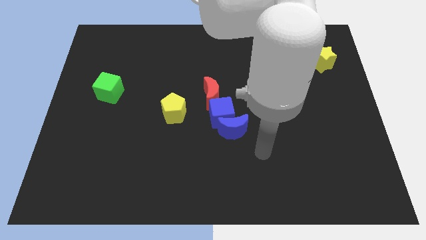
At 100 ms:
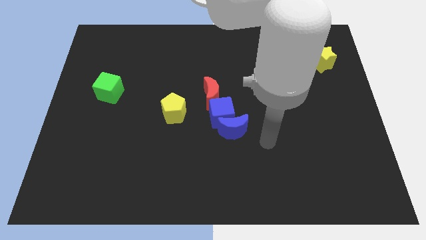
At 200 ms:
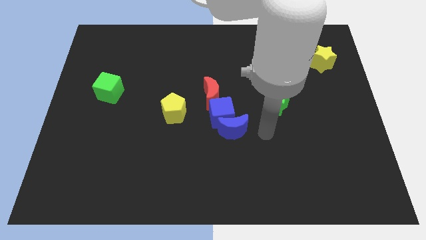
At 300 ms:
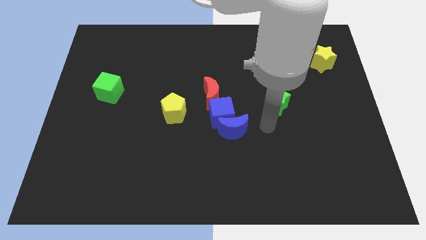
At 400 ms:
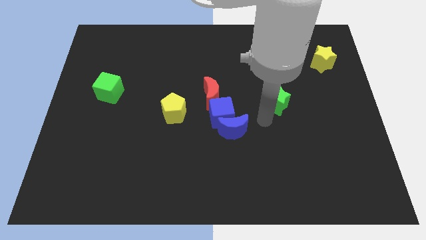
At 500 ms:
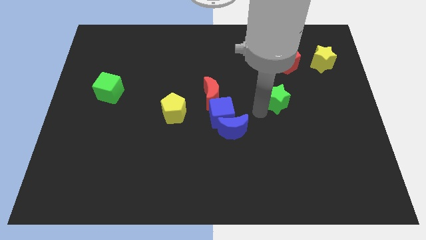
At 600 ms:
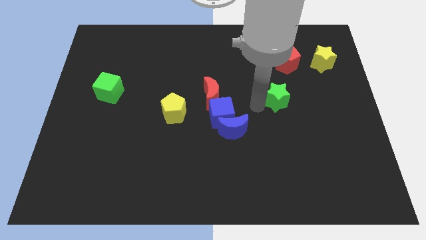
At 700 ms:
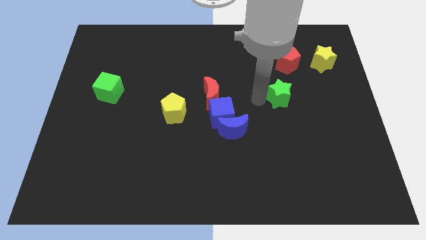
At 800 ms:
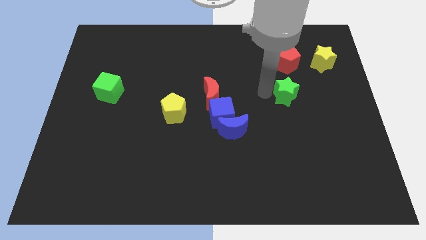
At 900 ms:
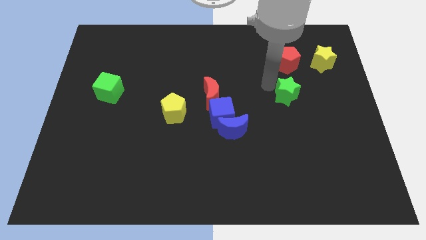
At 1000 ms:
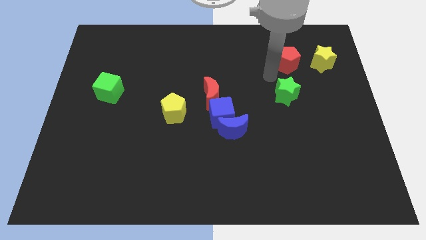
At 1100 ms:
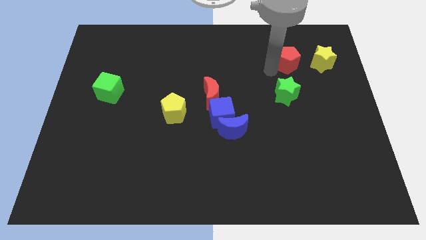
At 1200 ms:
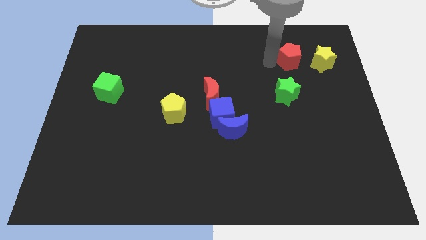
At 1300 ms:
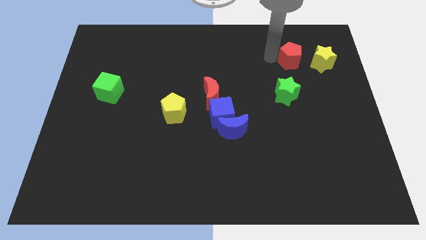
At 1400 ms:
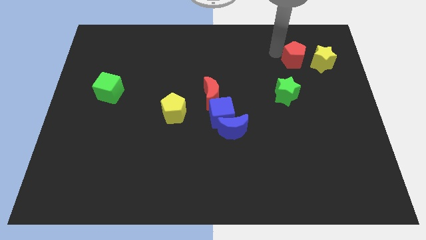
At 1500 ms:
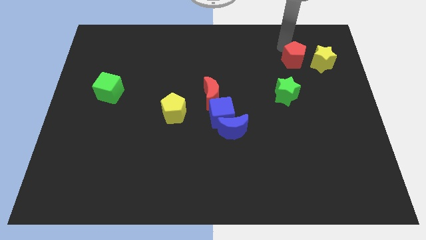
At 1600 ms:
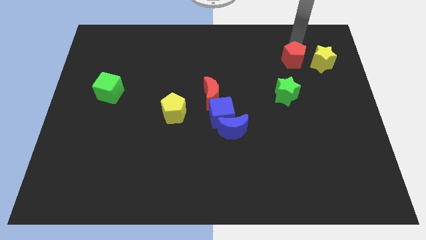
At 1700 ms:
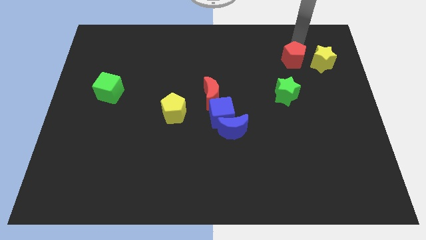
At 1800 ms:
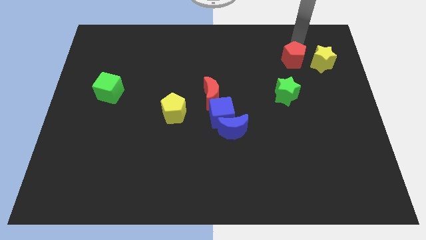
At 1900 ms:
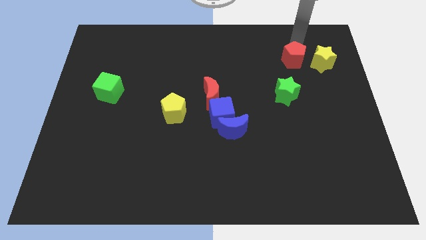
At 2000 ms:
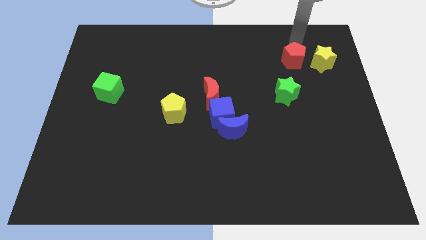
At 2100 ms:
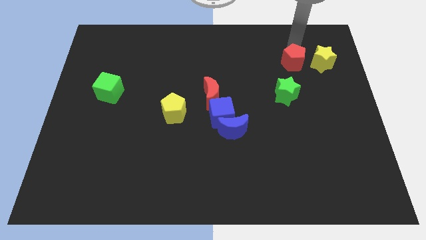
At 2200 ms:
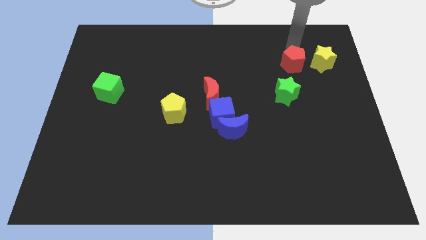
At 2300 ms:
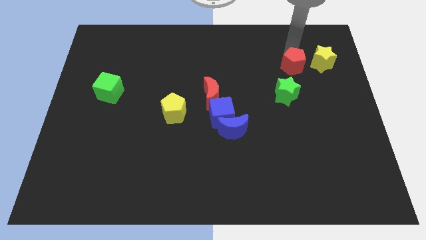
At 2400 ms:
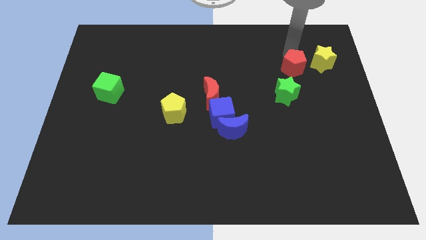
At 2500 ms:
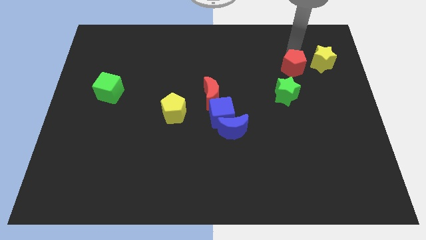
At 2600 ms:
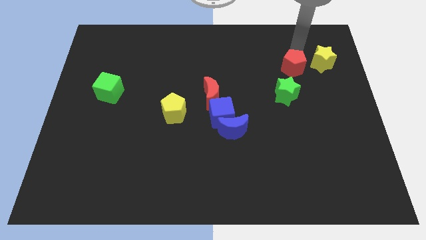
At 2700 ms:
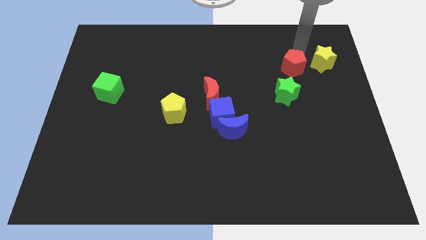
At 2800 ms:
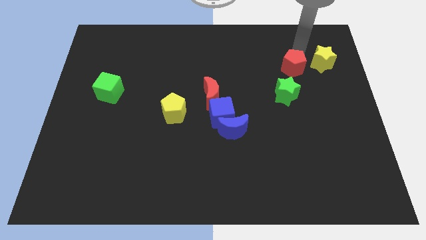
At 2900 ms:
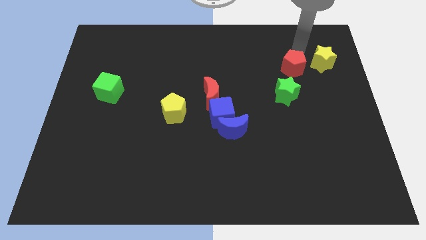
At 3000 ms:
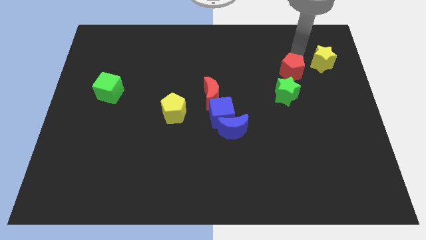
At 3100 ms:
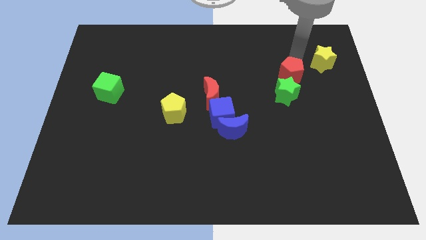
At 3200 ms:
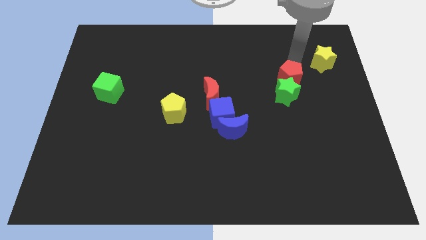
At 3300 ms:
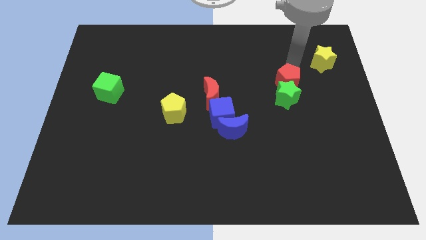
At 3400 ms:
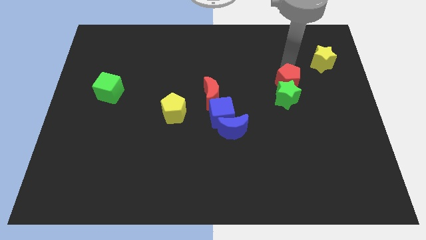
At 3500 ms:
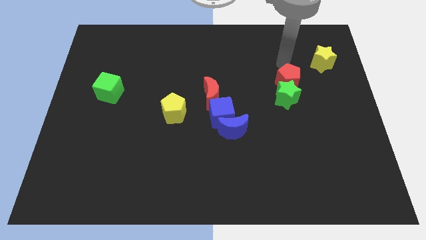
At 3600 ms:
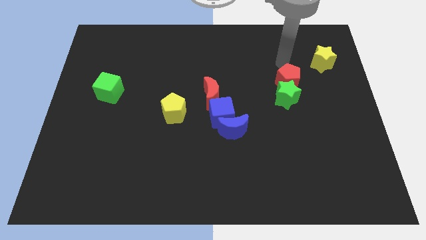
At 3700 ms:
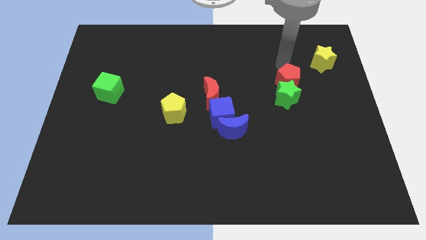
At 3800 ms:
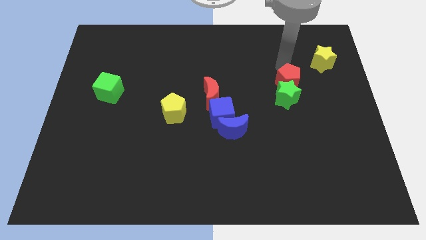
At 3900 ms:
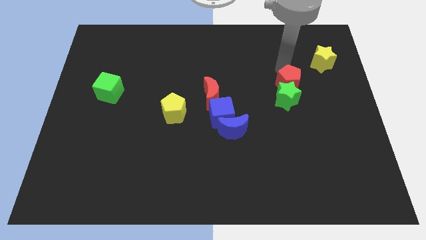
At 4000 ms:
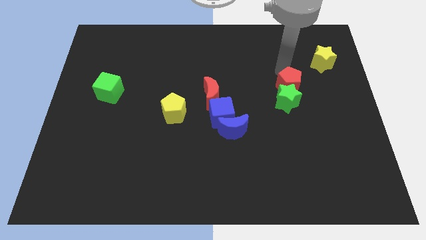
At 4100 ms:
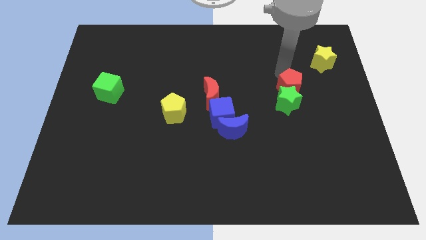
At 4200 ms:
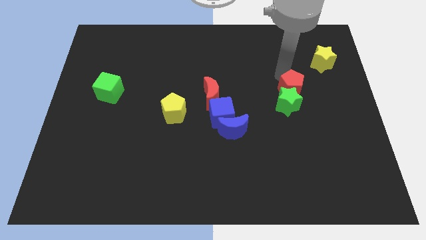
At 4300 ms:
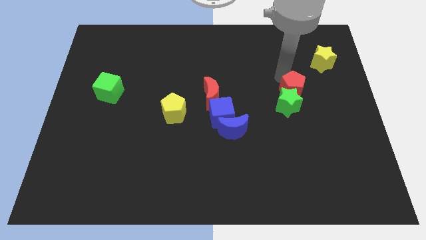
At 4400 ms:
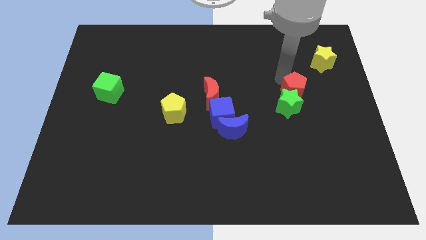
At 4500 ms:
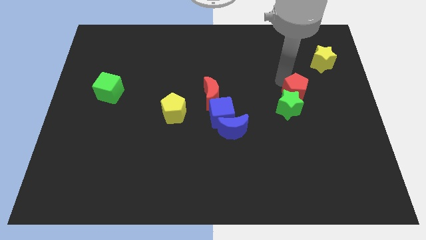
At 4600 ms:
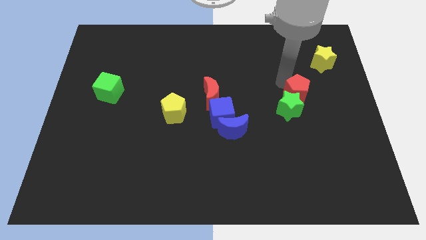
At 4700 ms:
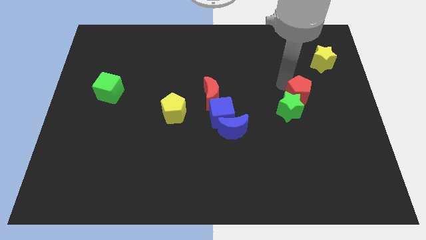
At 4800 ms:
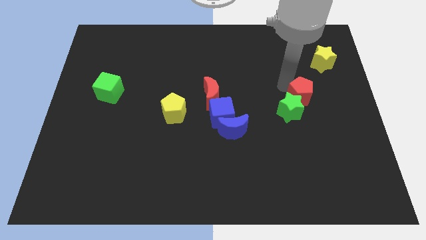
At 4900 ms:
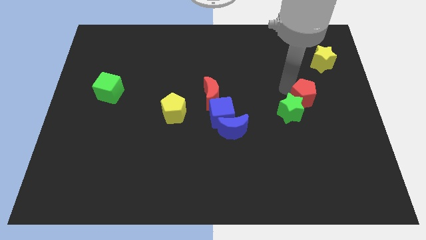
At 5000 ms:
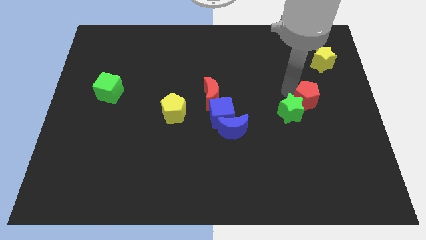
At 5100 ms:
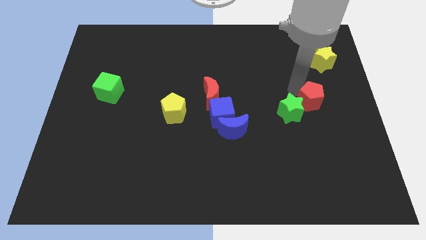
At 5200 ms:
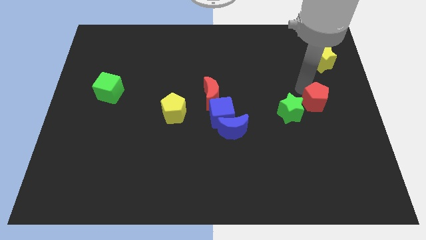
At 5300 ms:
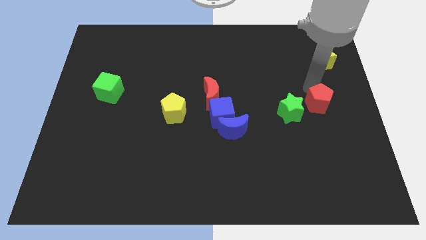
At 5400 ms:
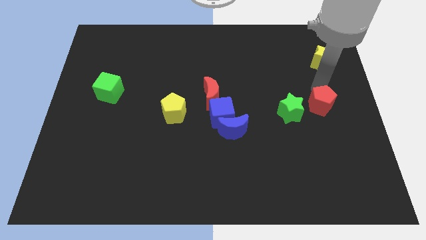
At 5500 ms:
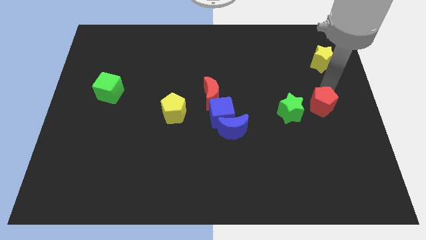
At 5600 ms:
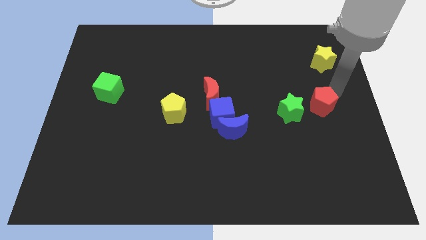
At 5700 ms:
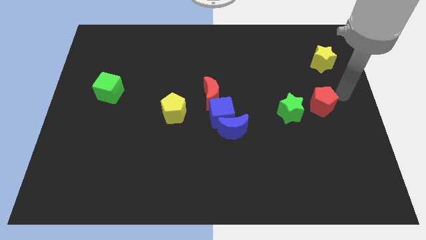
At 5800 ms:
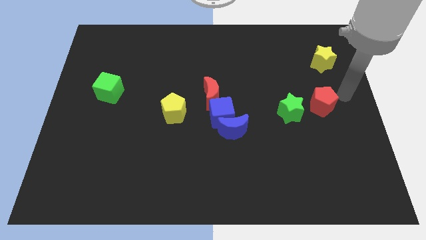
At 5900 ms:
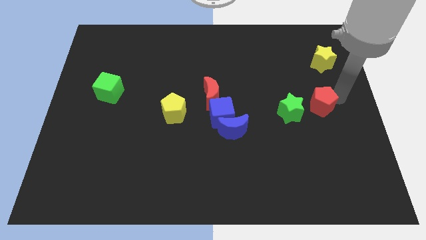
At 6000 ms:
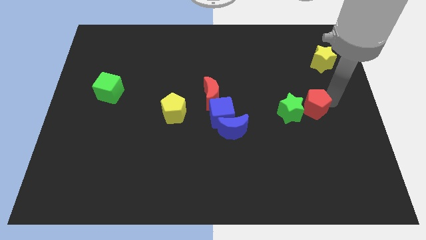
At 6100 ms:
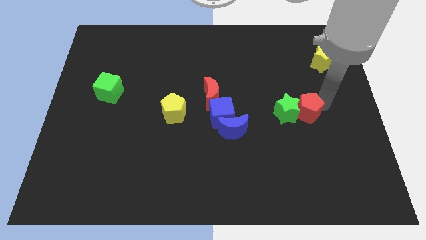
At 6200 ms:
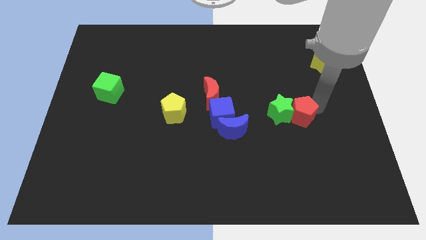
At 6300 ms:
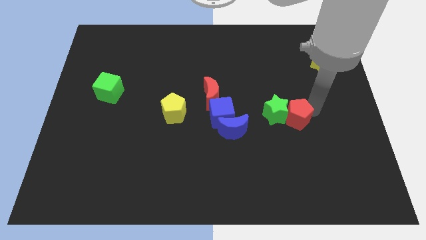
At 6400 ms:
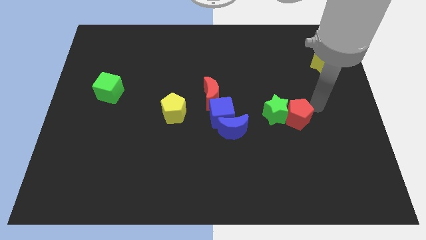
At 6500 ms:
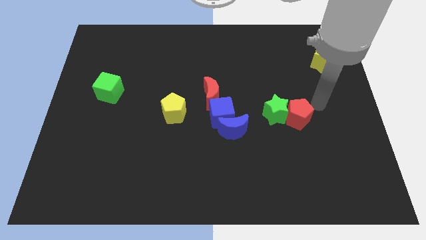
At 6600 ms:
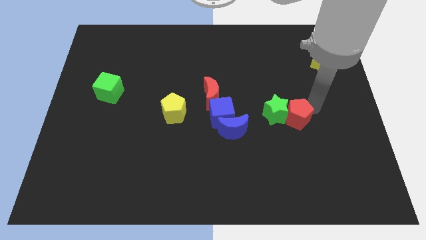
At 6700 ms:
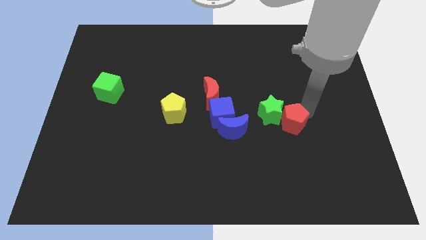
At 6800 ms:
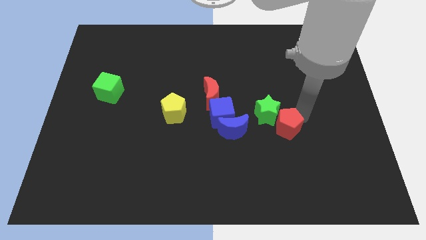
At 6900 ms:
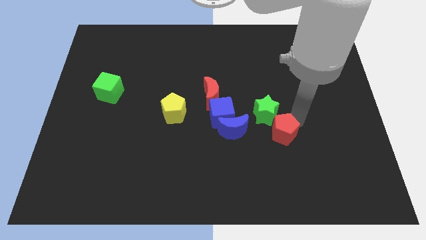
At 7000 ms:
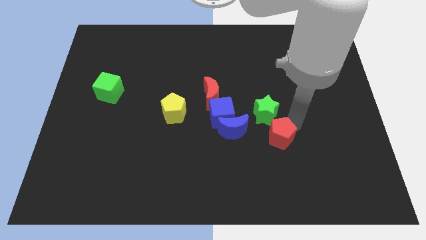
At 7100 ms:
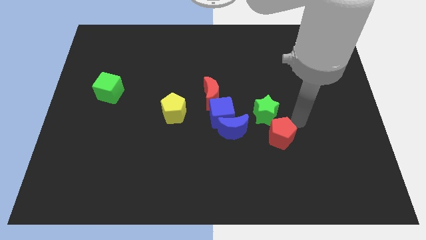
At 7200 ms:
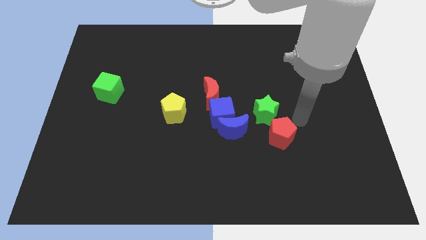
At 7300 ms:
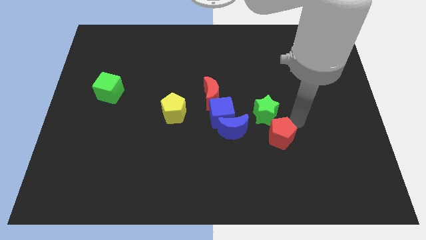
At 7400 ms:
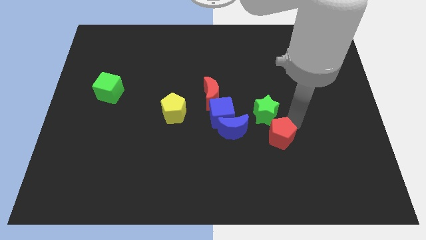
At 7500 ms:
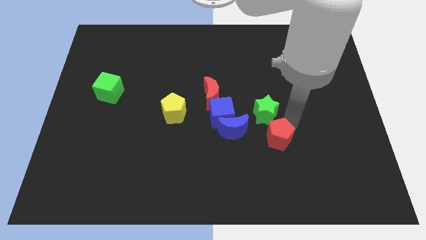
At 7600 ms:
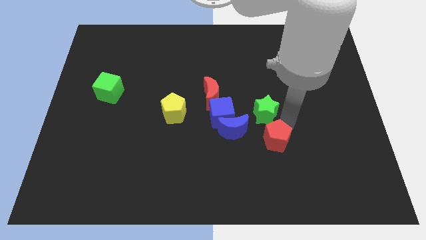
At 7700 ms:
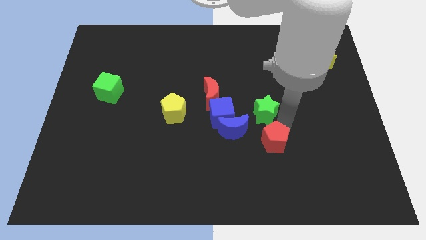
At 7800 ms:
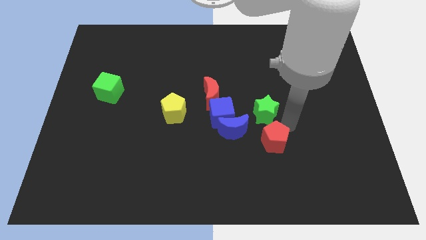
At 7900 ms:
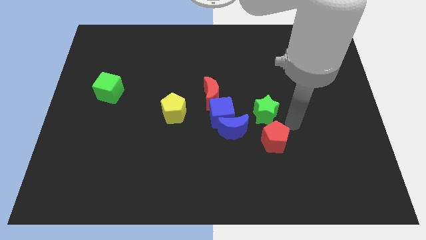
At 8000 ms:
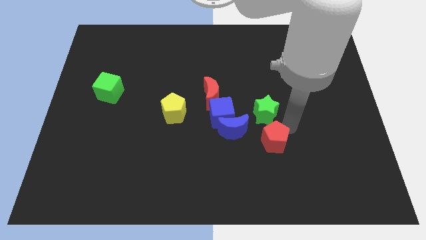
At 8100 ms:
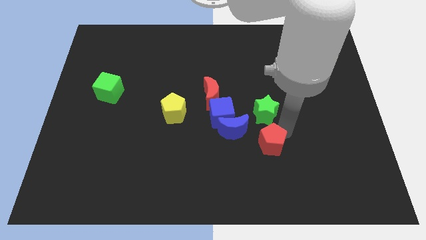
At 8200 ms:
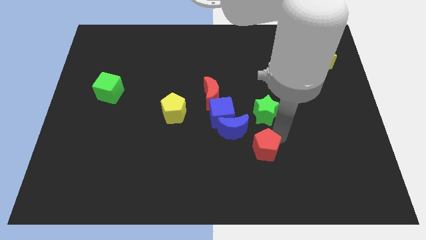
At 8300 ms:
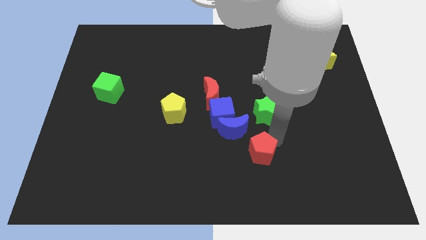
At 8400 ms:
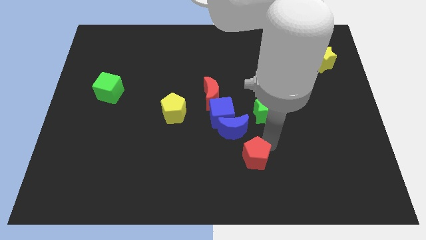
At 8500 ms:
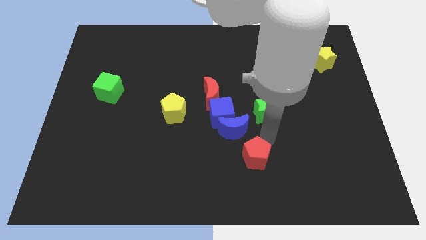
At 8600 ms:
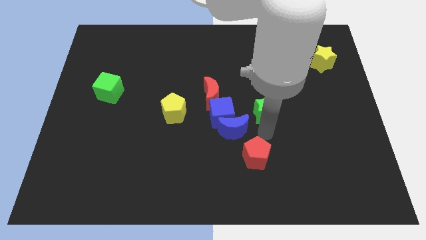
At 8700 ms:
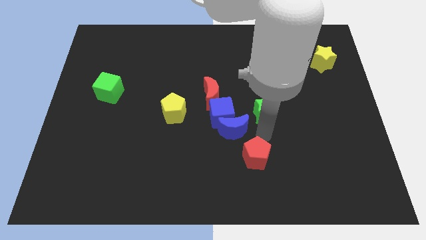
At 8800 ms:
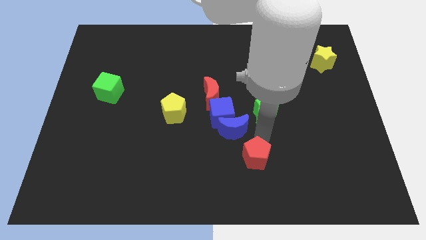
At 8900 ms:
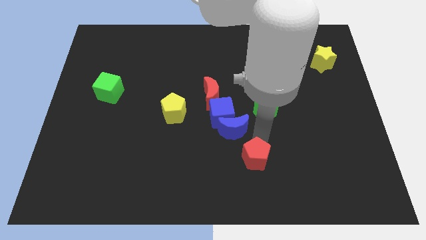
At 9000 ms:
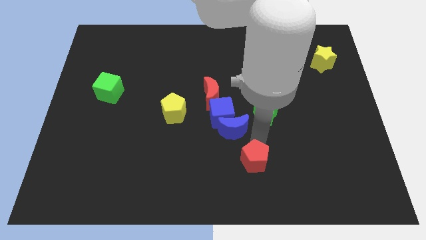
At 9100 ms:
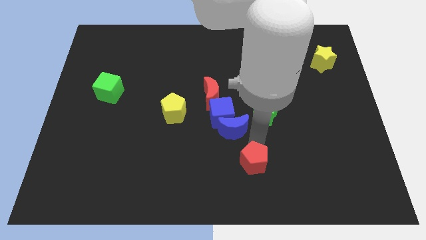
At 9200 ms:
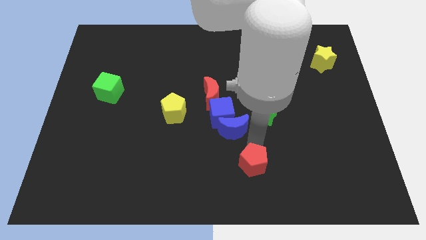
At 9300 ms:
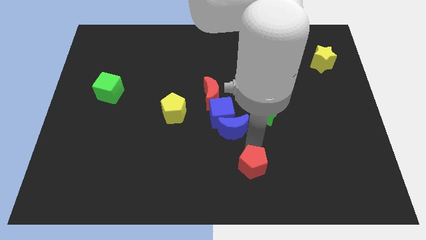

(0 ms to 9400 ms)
move the red pentagon to the bottom side
